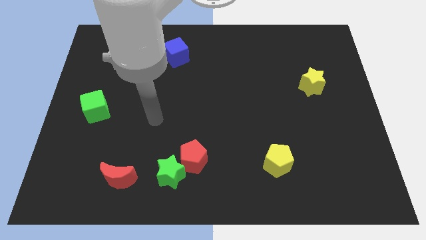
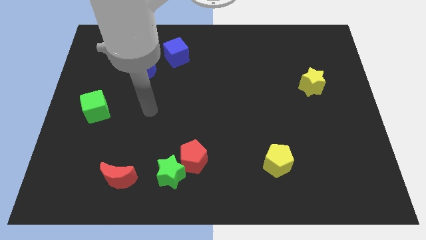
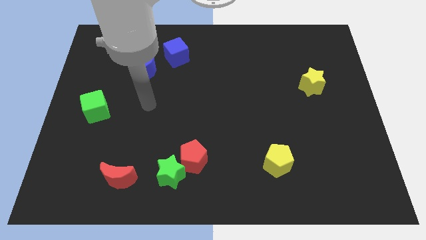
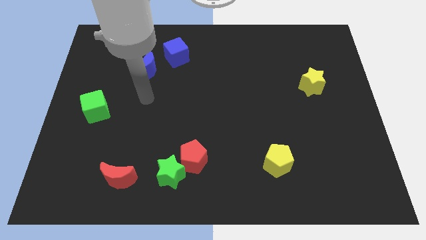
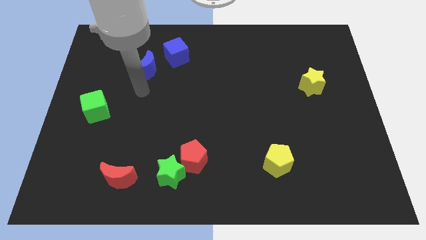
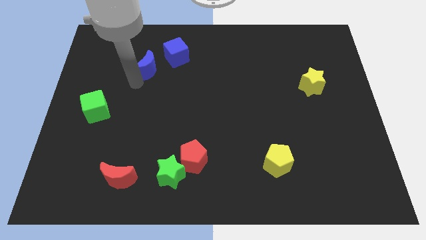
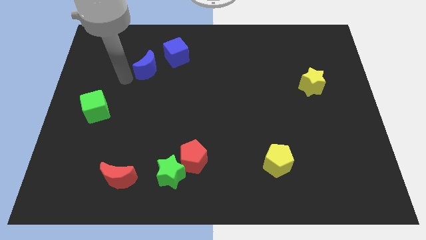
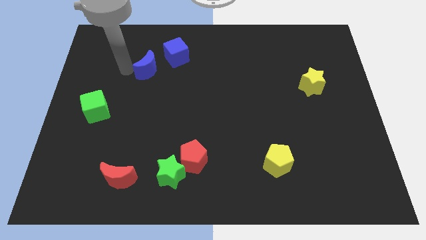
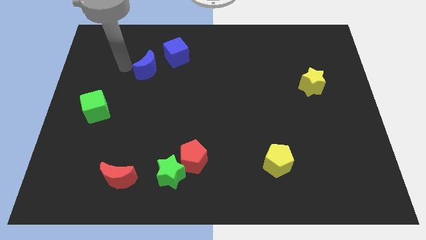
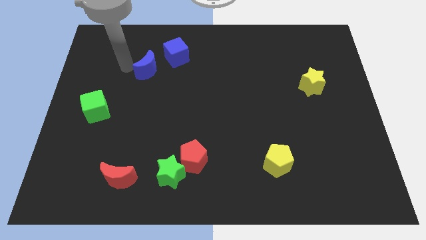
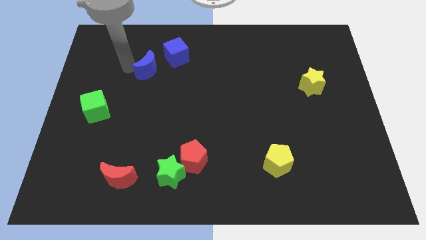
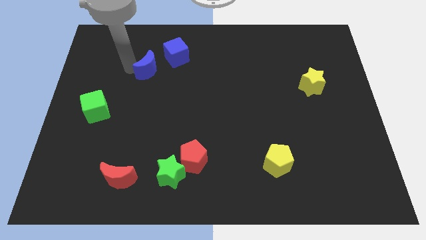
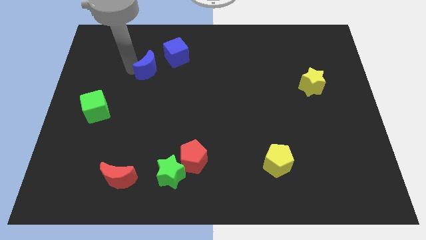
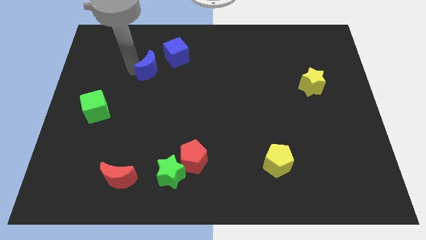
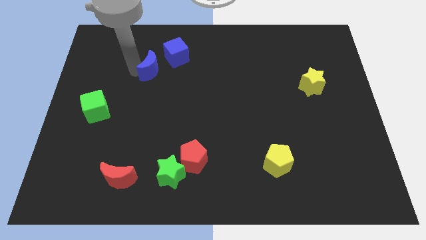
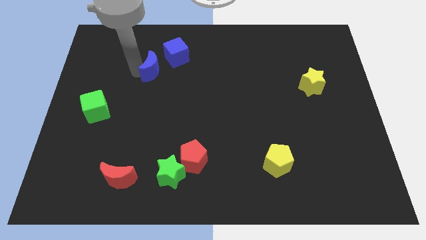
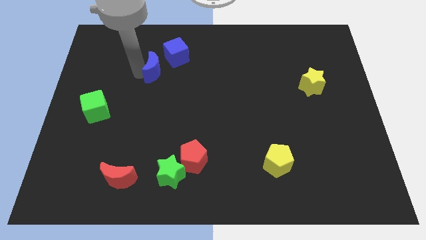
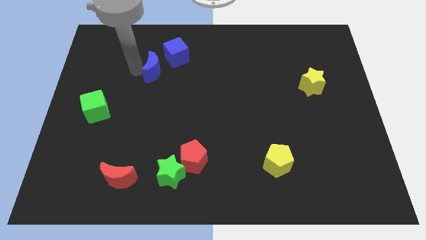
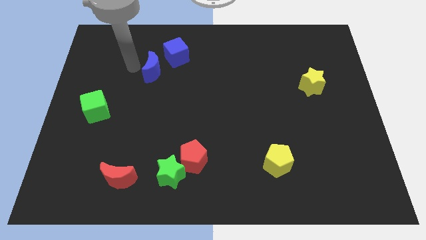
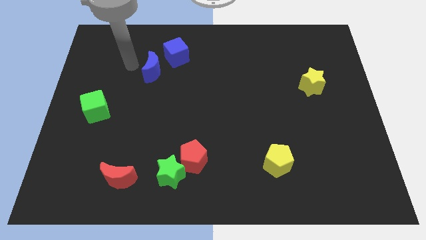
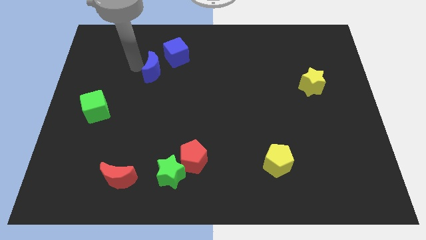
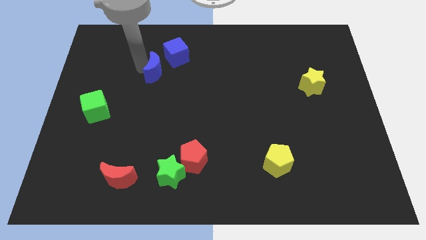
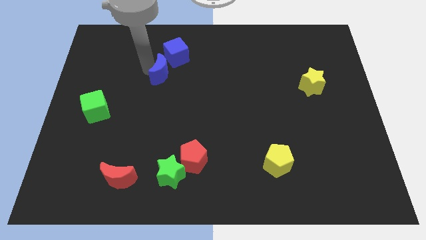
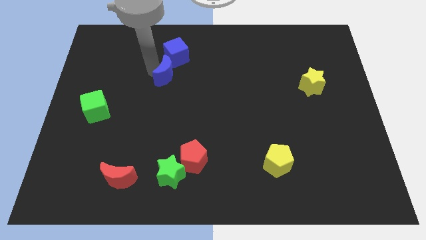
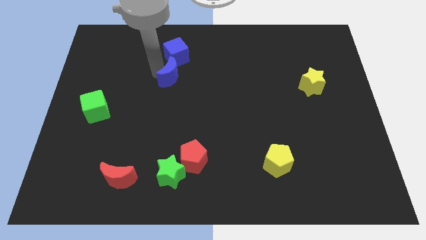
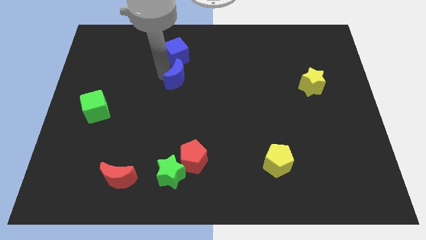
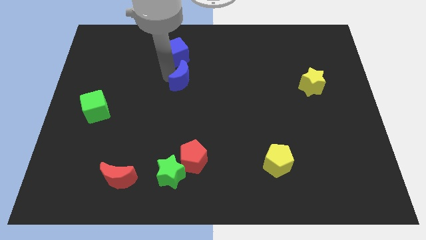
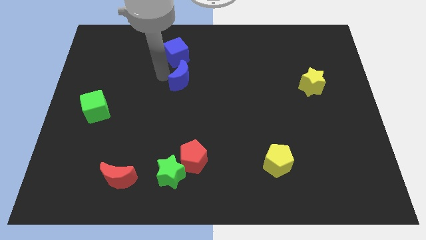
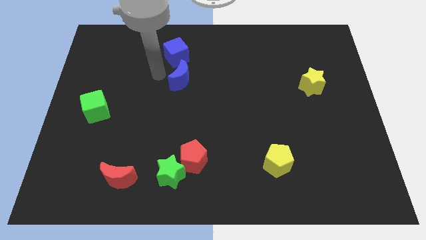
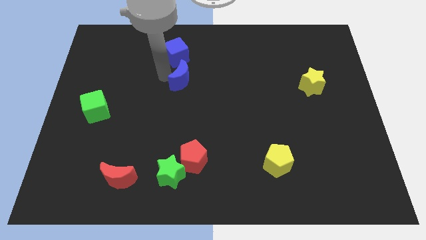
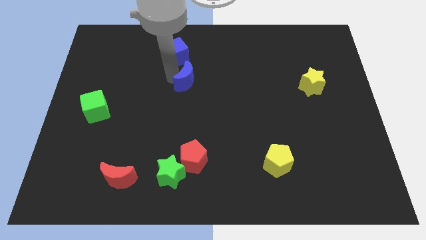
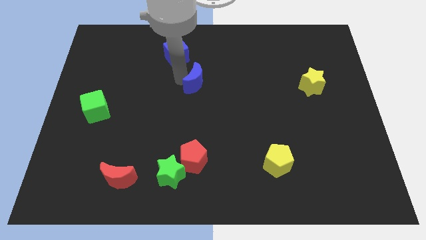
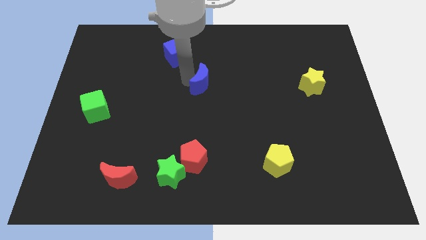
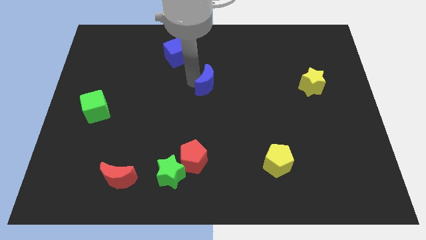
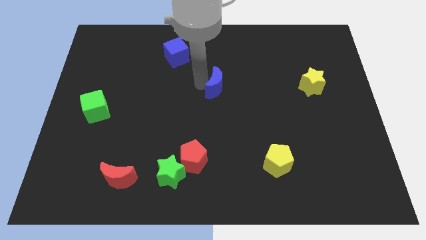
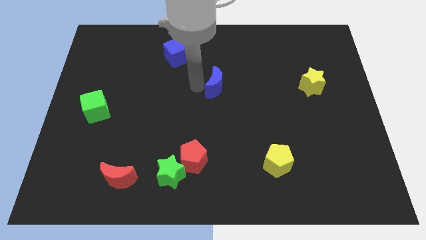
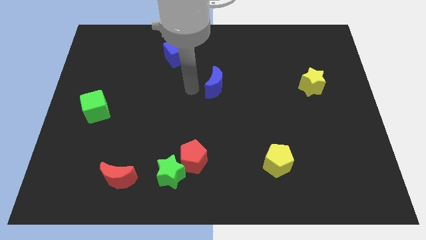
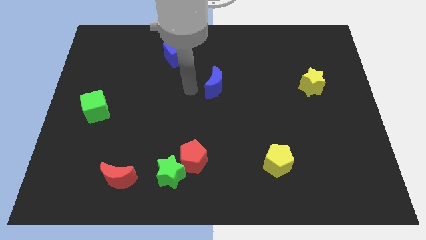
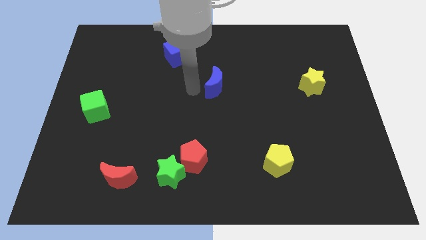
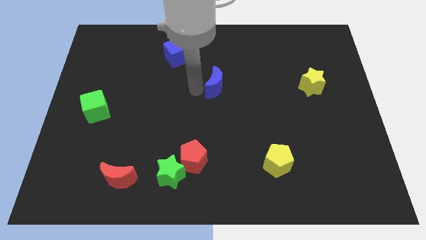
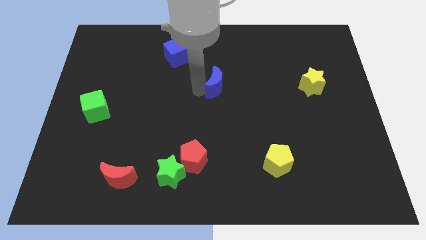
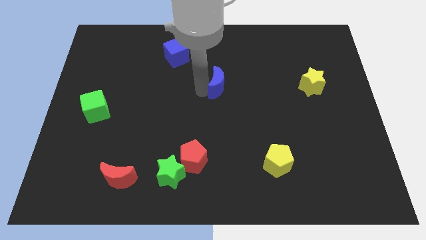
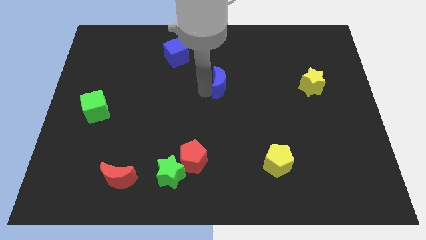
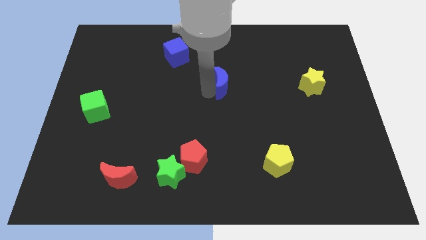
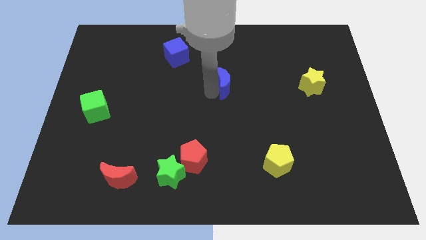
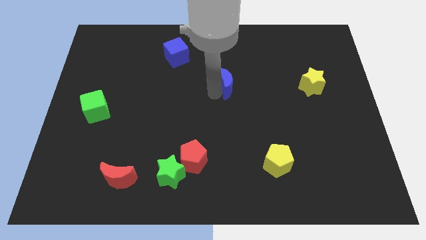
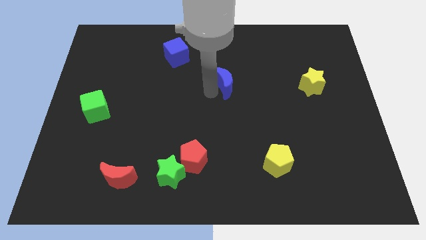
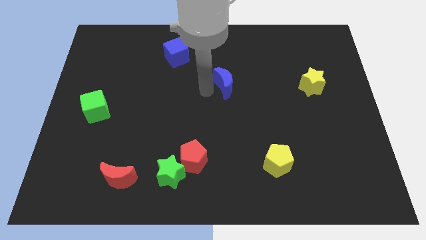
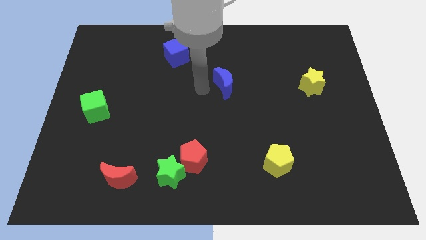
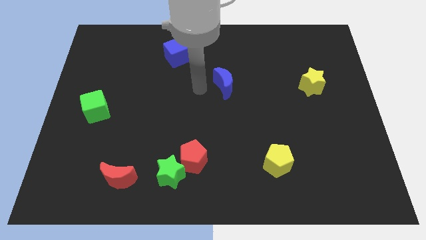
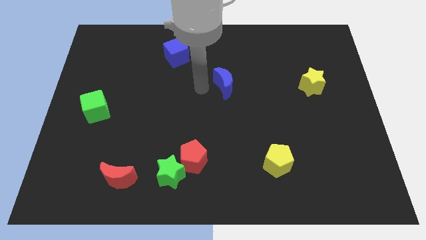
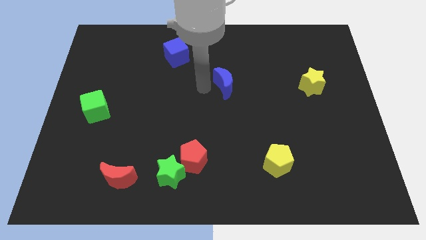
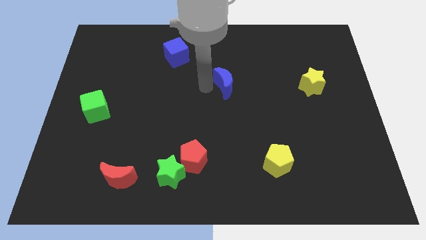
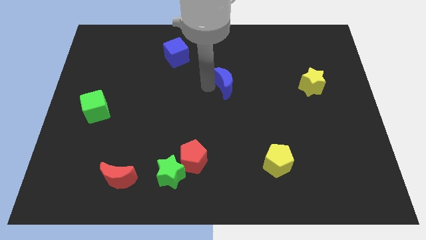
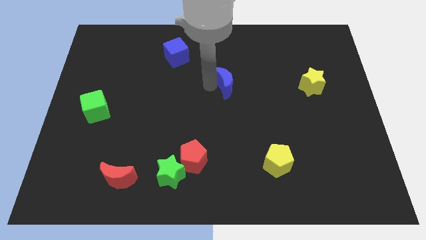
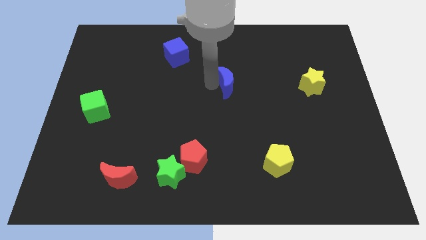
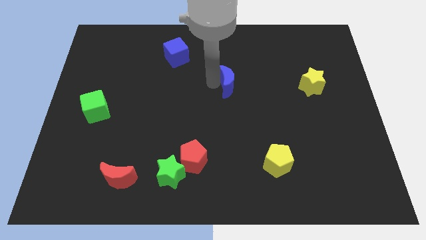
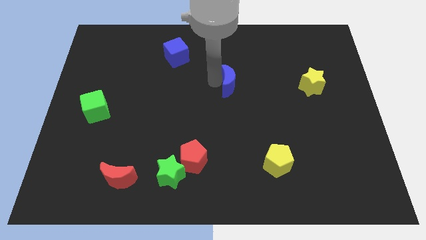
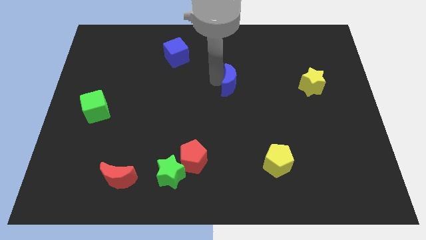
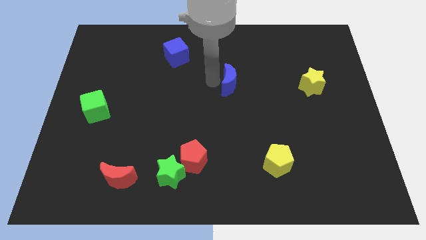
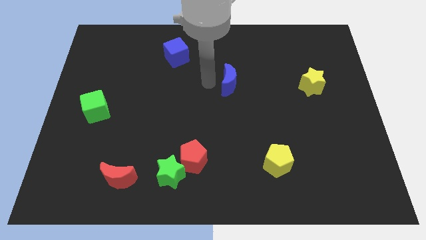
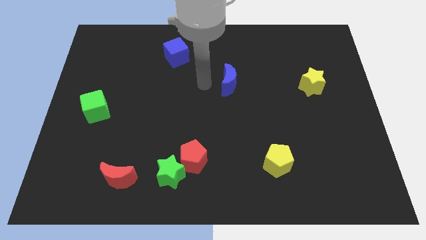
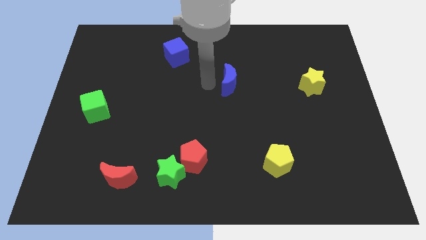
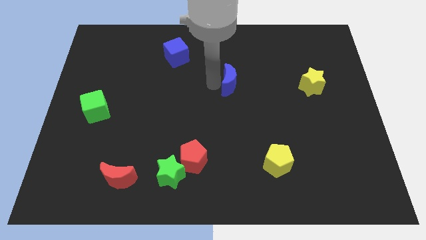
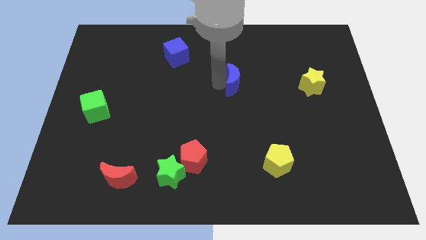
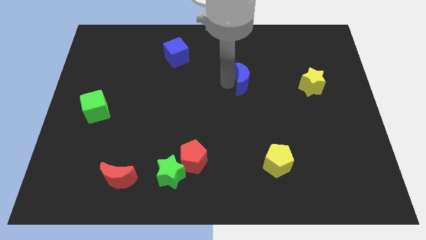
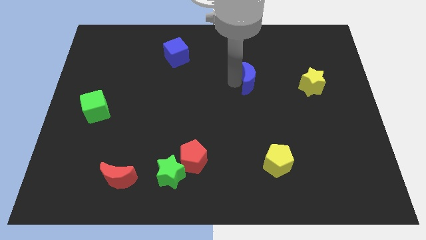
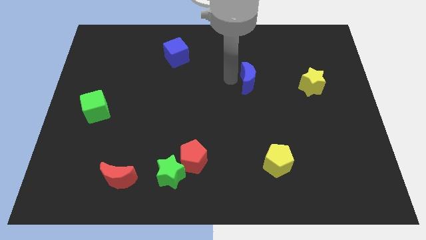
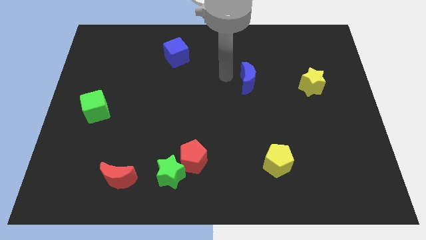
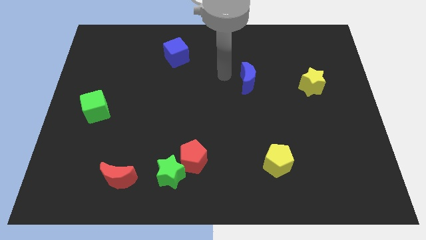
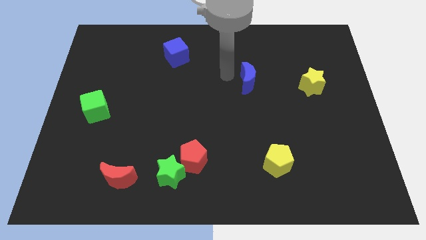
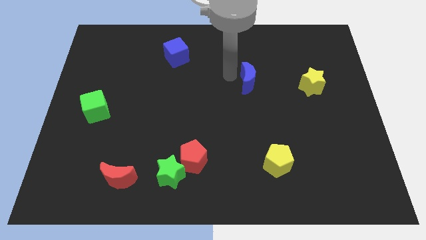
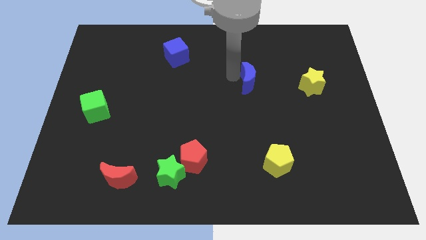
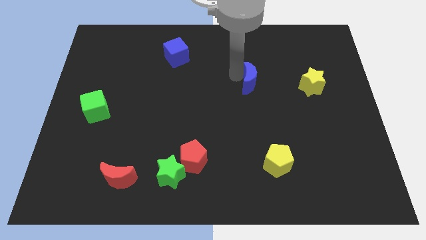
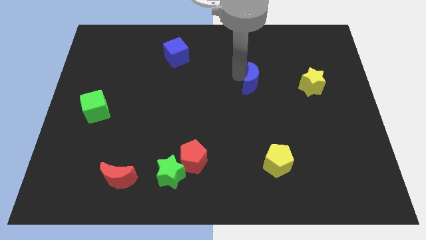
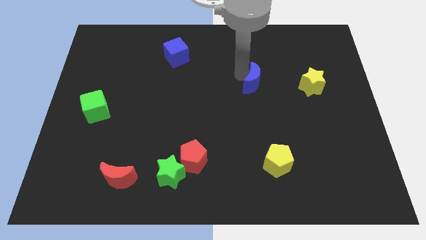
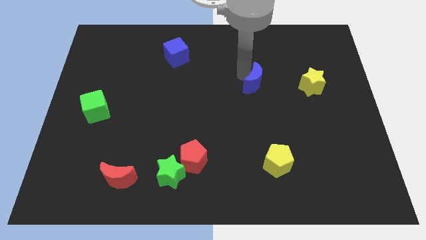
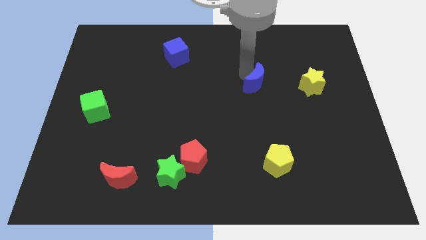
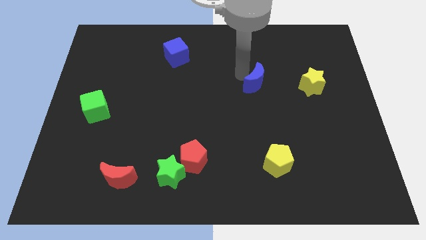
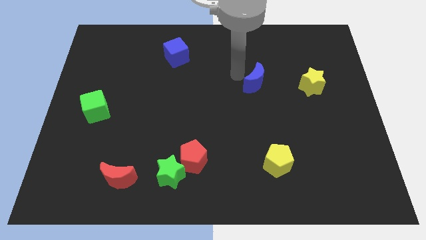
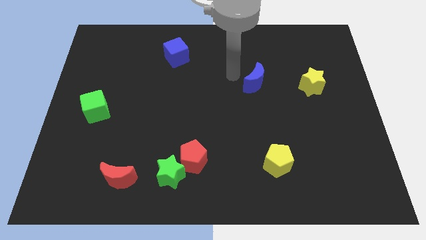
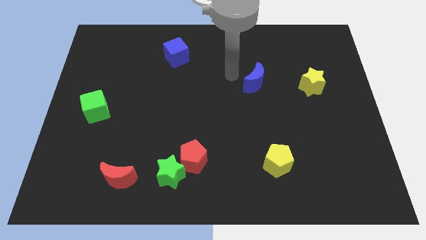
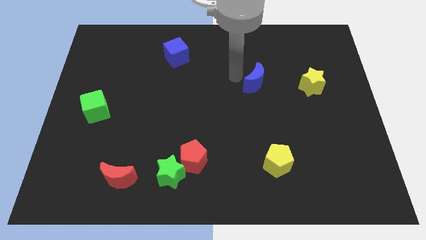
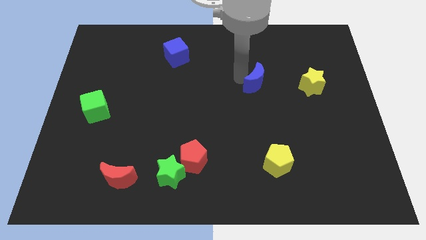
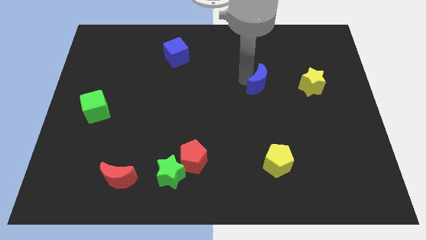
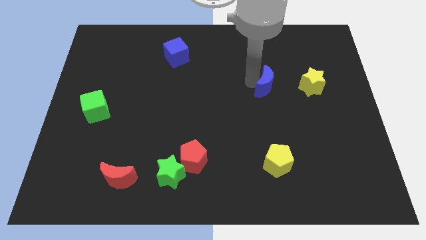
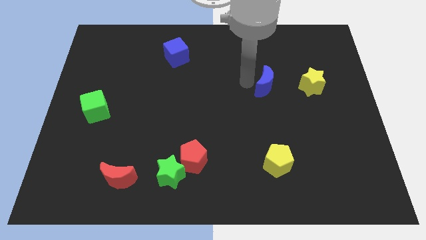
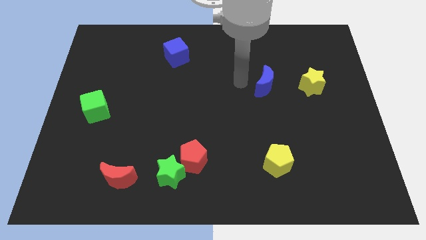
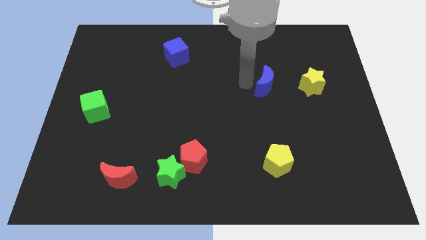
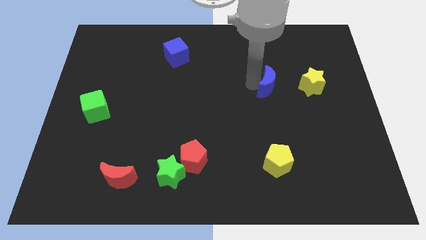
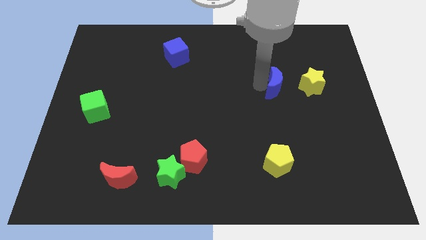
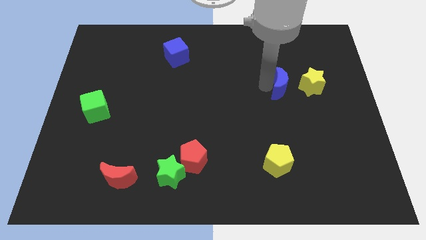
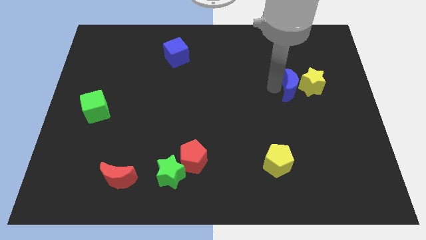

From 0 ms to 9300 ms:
slide the blue moon next to the yellow star
